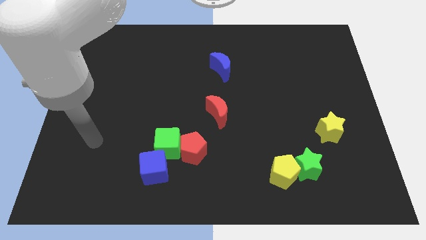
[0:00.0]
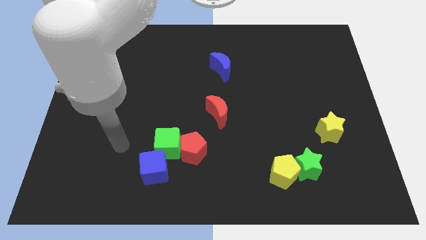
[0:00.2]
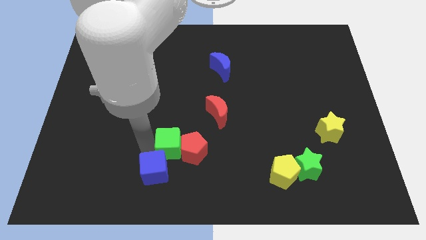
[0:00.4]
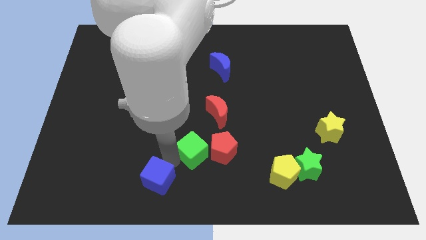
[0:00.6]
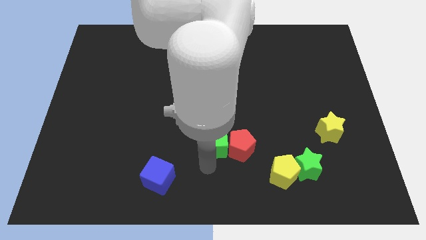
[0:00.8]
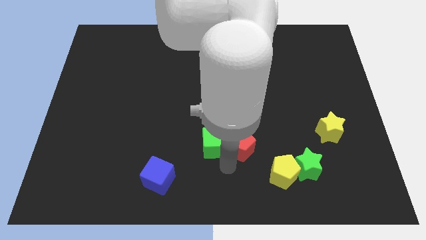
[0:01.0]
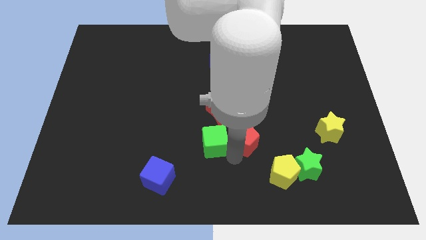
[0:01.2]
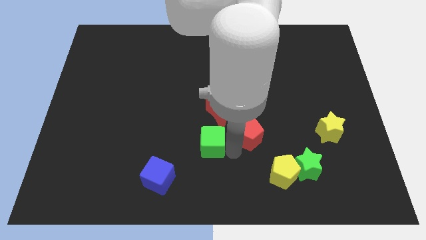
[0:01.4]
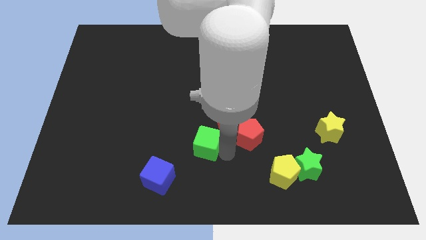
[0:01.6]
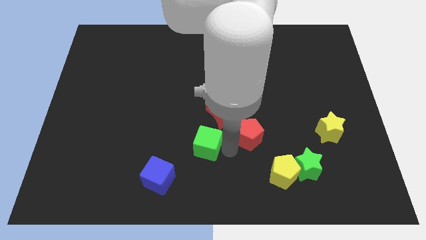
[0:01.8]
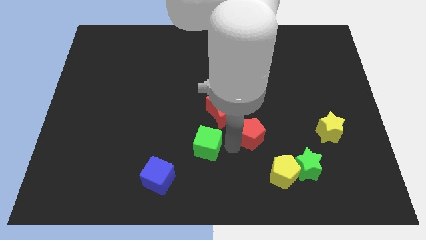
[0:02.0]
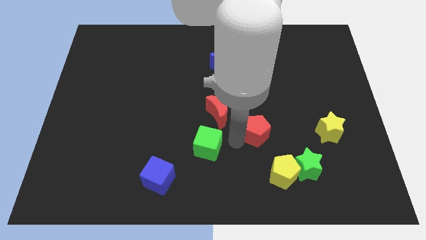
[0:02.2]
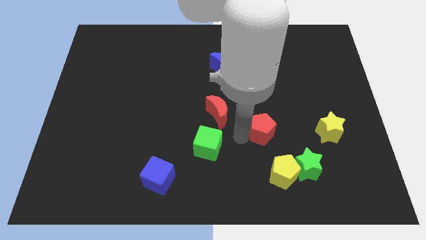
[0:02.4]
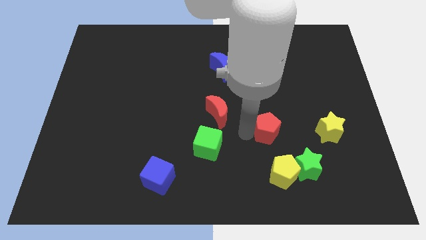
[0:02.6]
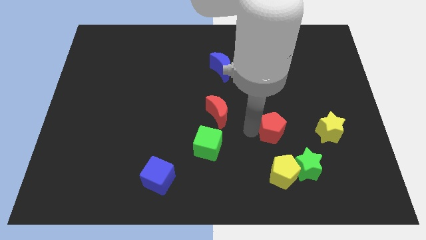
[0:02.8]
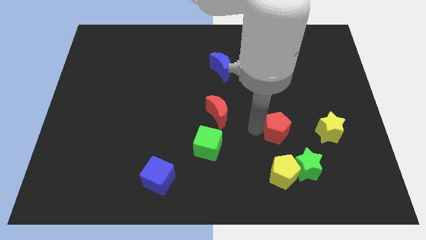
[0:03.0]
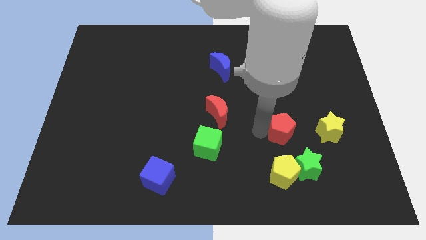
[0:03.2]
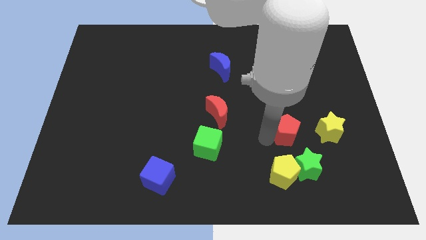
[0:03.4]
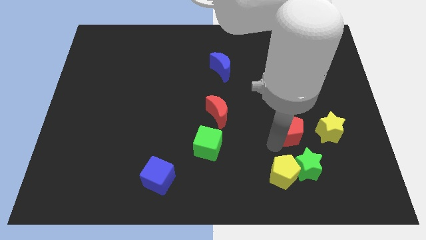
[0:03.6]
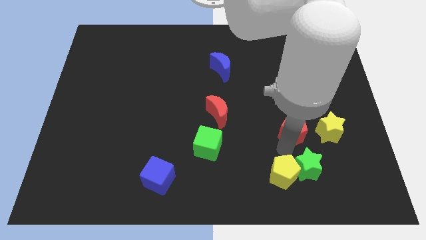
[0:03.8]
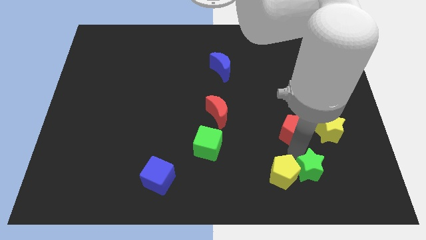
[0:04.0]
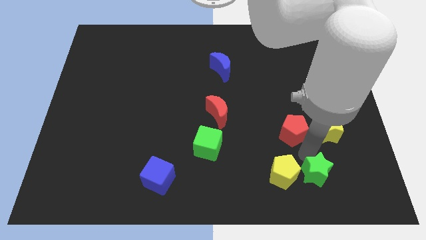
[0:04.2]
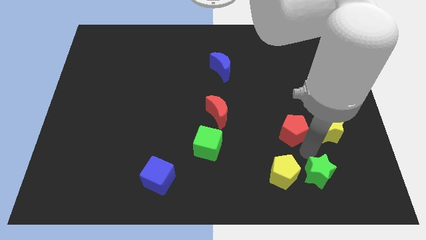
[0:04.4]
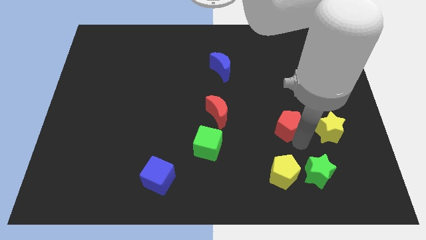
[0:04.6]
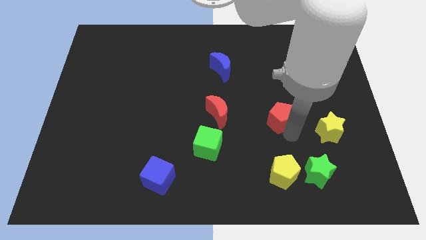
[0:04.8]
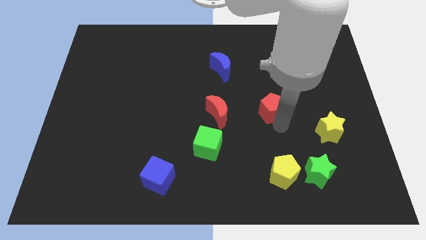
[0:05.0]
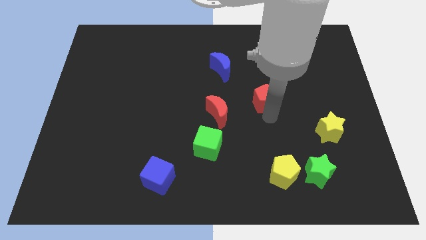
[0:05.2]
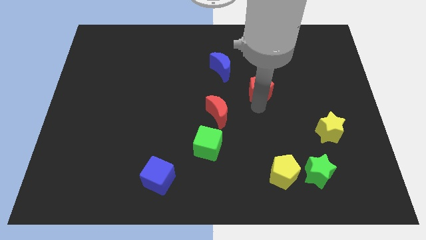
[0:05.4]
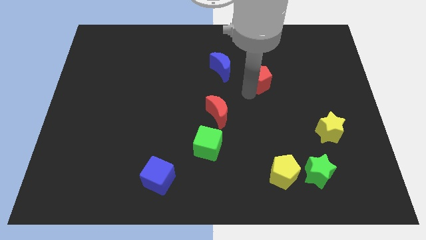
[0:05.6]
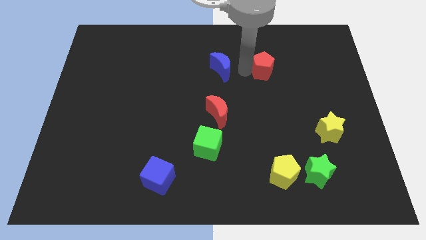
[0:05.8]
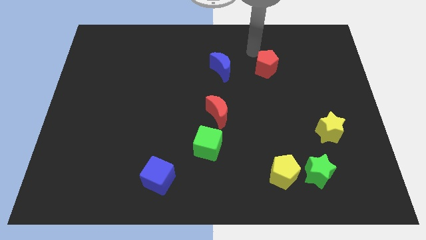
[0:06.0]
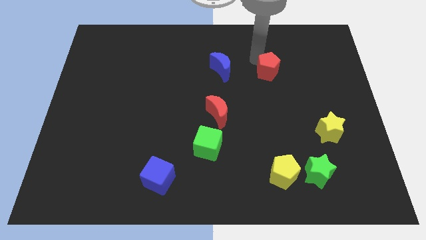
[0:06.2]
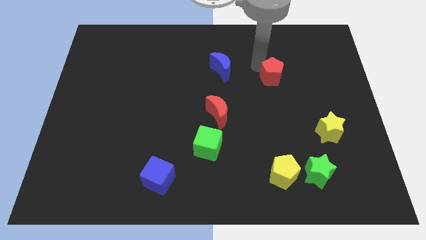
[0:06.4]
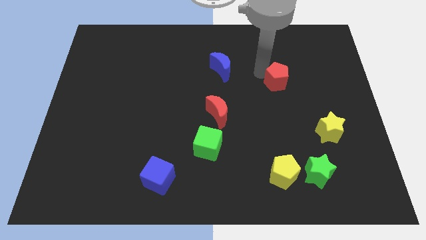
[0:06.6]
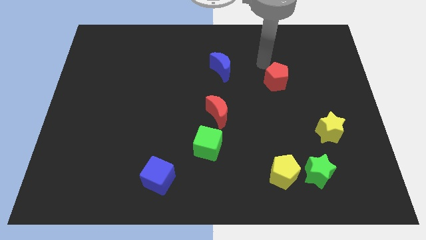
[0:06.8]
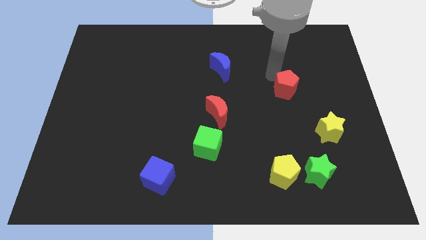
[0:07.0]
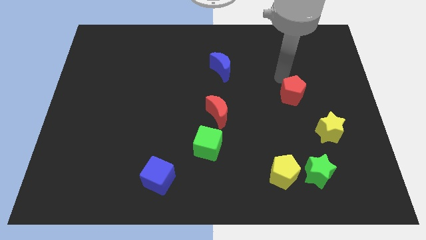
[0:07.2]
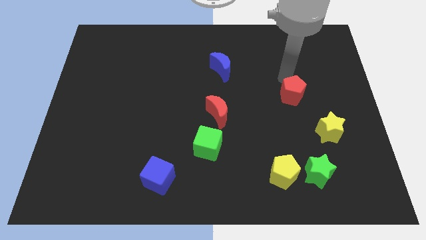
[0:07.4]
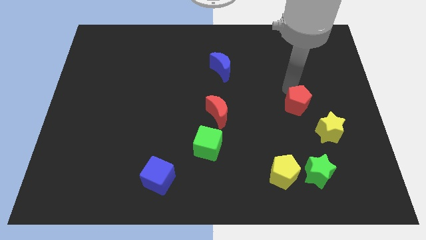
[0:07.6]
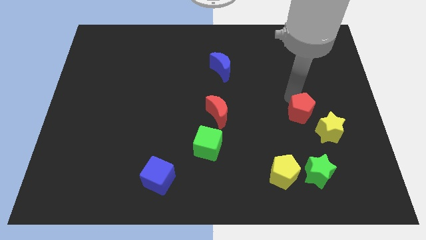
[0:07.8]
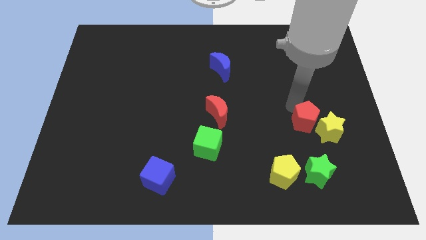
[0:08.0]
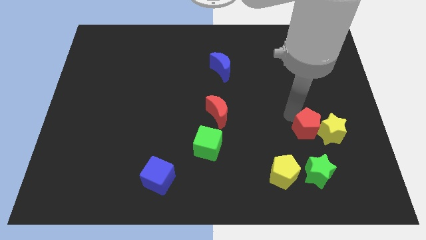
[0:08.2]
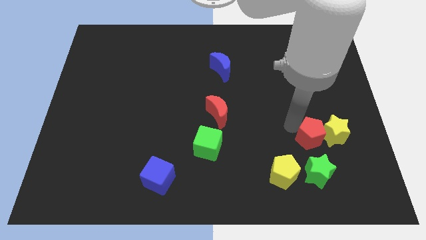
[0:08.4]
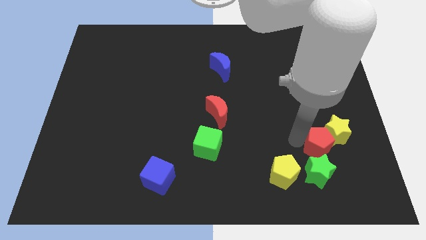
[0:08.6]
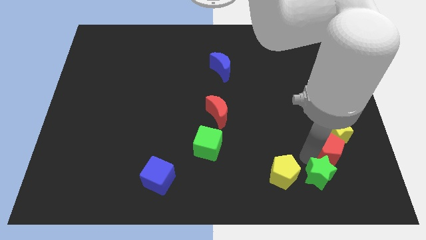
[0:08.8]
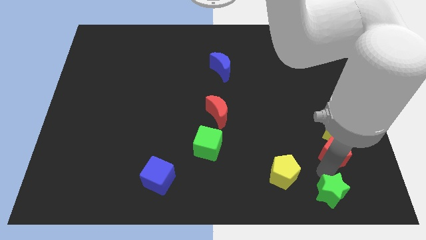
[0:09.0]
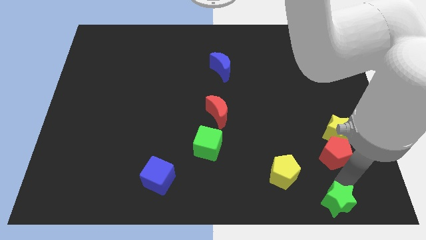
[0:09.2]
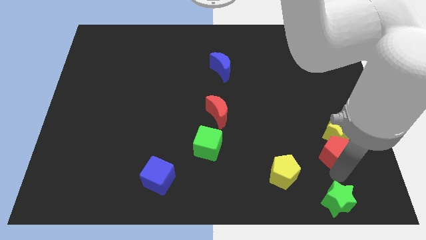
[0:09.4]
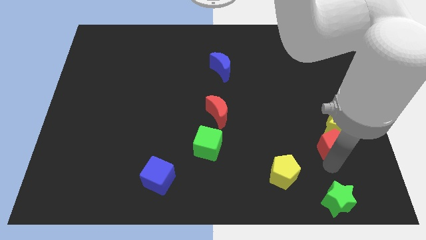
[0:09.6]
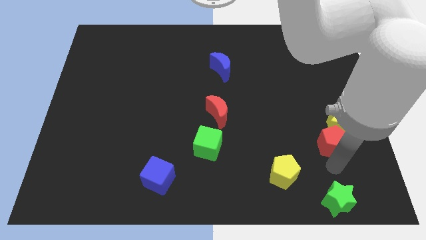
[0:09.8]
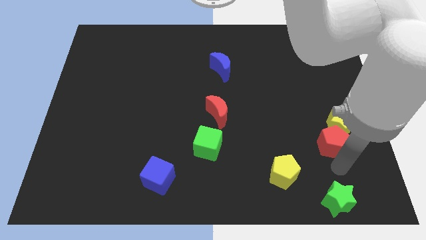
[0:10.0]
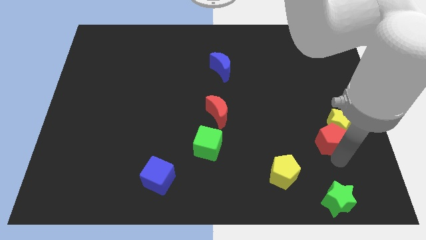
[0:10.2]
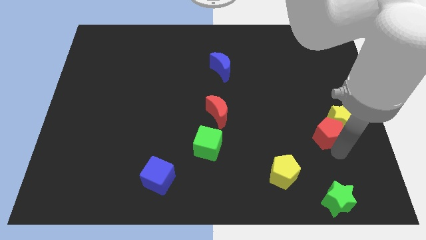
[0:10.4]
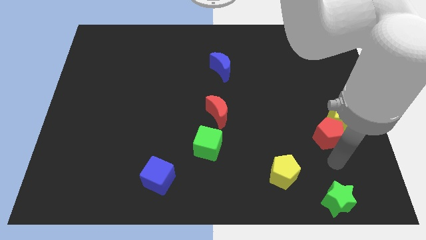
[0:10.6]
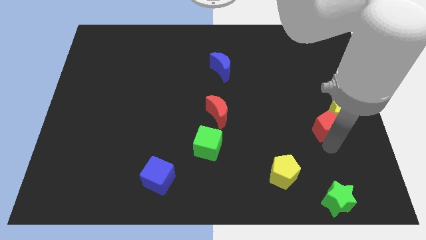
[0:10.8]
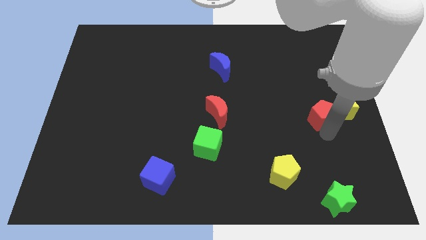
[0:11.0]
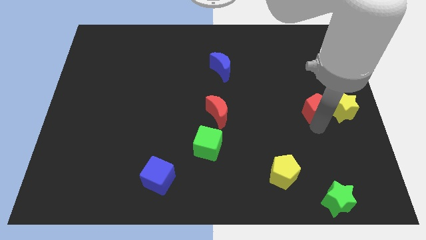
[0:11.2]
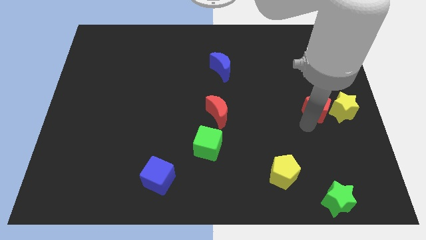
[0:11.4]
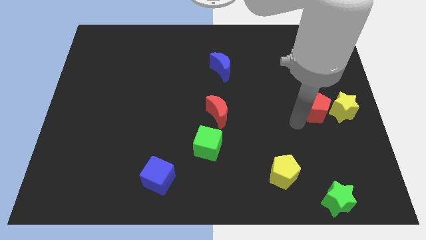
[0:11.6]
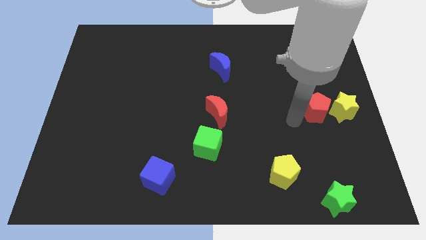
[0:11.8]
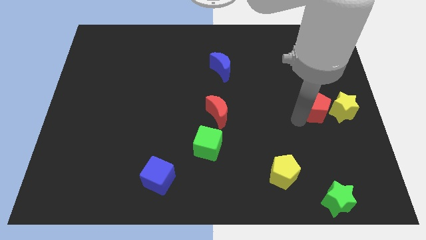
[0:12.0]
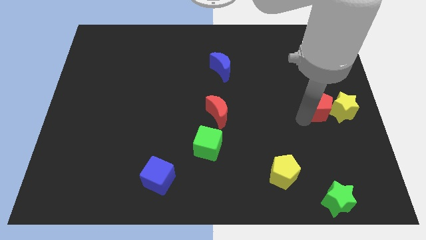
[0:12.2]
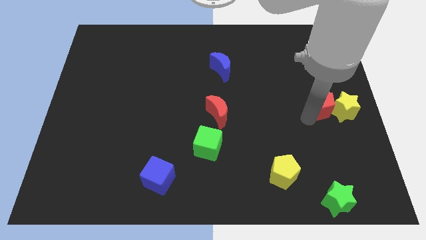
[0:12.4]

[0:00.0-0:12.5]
slide the red pentagon to the center right

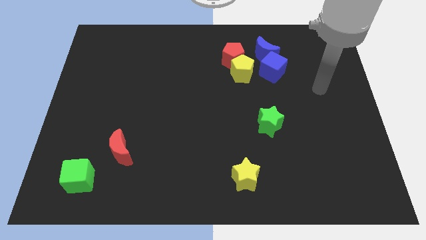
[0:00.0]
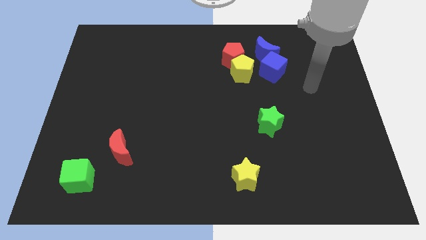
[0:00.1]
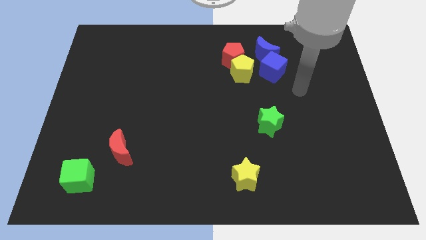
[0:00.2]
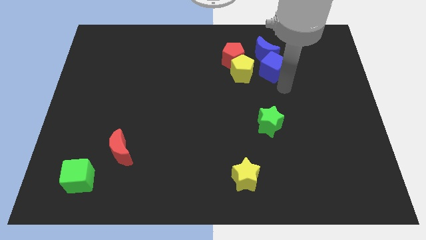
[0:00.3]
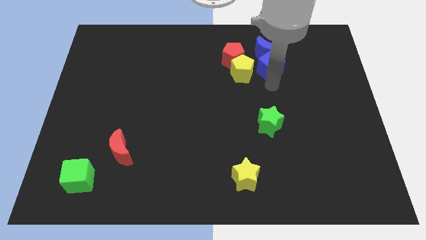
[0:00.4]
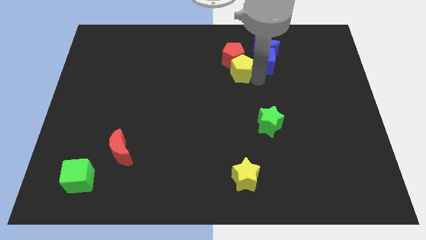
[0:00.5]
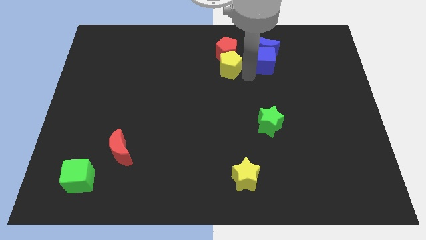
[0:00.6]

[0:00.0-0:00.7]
move the red pentagon to the towards your base
